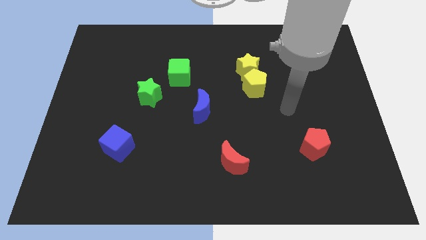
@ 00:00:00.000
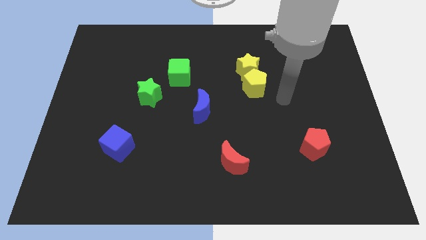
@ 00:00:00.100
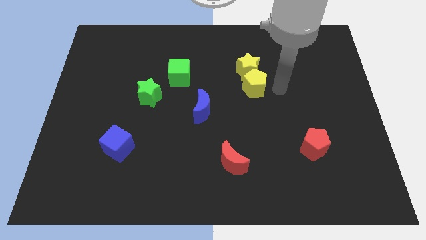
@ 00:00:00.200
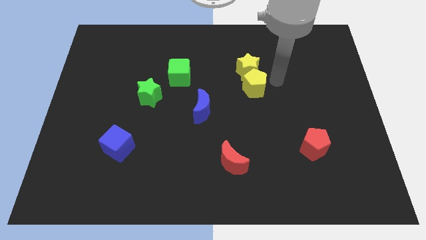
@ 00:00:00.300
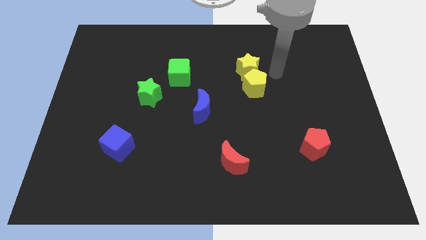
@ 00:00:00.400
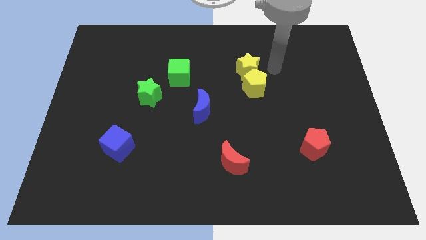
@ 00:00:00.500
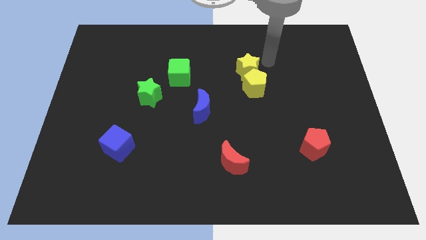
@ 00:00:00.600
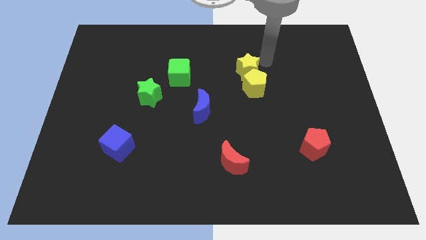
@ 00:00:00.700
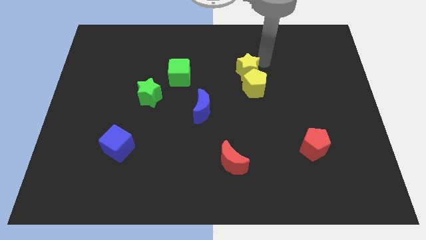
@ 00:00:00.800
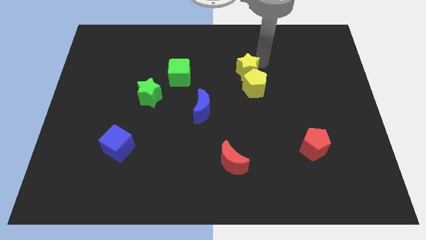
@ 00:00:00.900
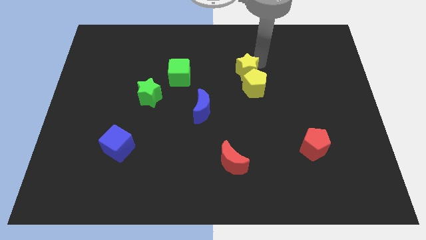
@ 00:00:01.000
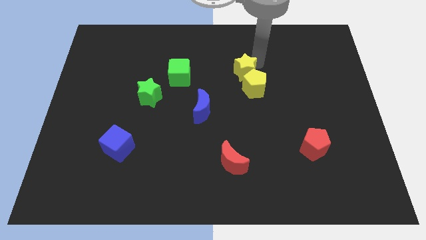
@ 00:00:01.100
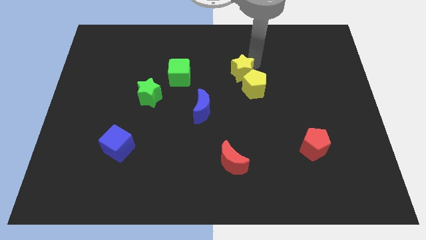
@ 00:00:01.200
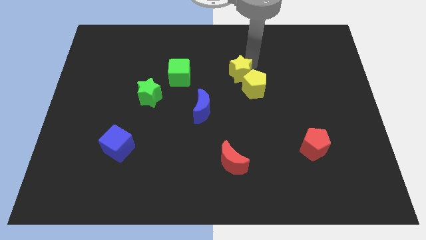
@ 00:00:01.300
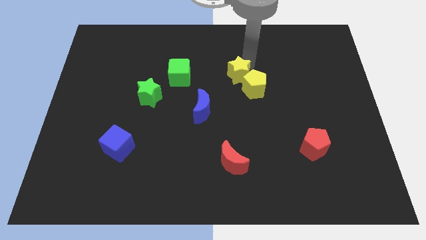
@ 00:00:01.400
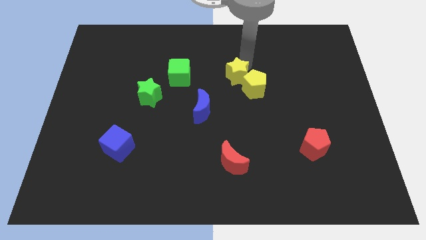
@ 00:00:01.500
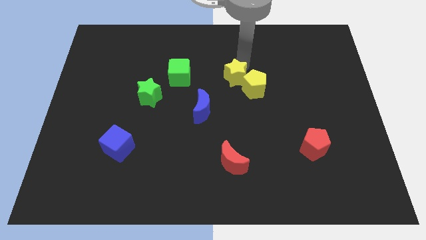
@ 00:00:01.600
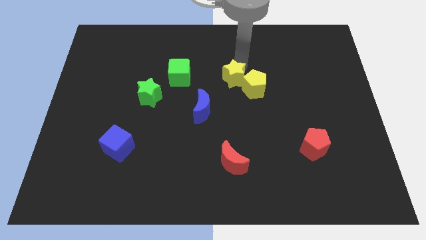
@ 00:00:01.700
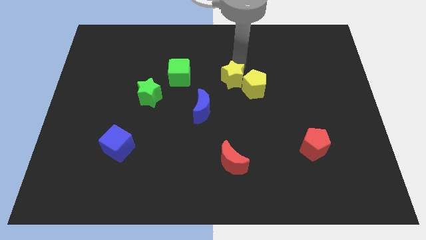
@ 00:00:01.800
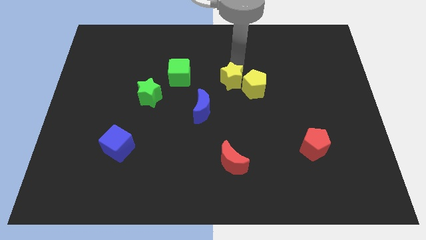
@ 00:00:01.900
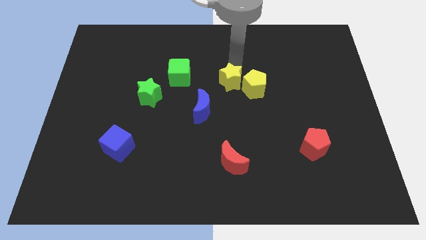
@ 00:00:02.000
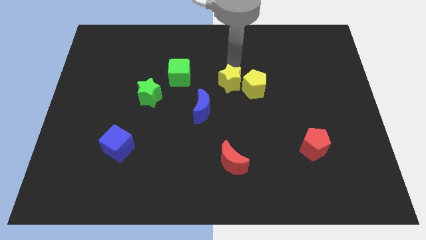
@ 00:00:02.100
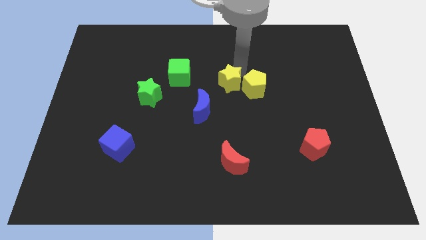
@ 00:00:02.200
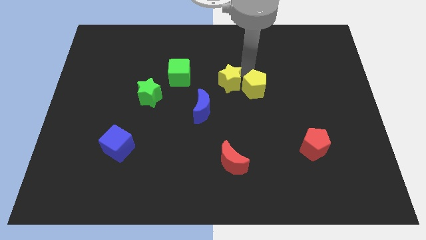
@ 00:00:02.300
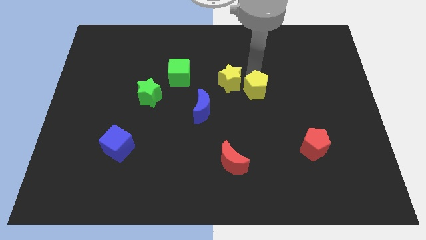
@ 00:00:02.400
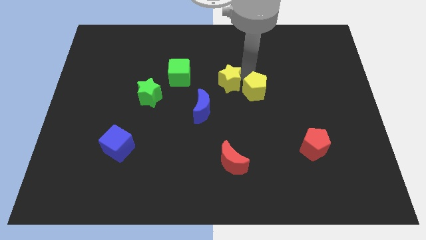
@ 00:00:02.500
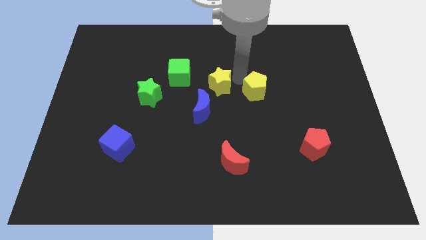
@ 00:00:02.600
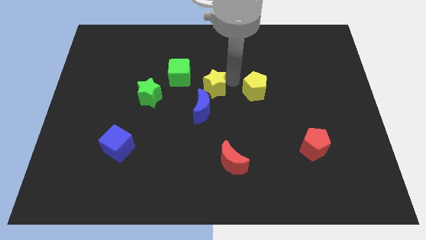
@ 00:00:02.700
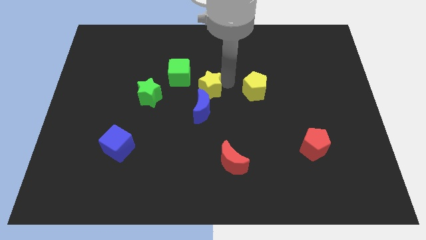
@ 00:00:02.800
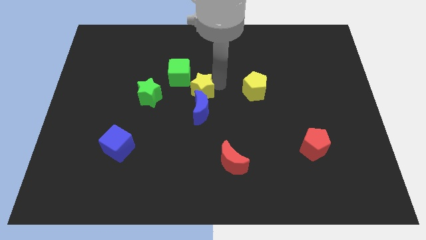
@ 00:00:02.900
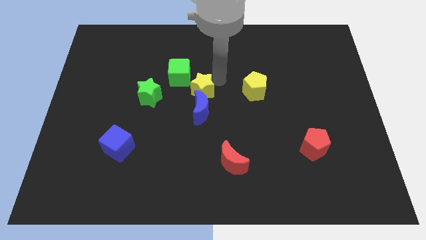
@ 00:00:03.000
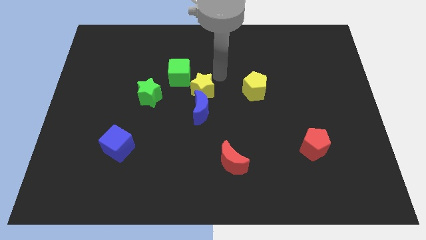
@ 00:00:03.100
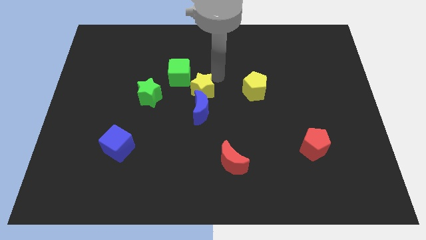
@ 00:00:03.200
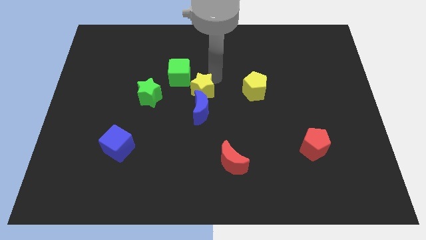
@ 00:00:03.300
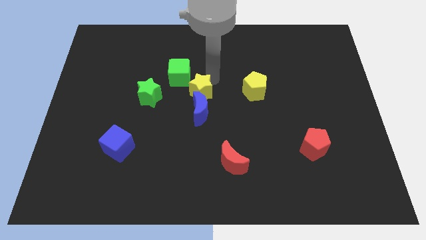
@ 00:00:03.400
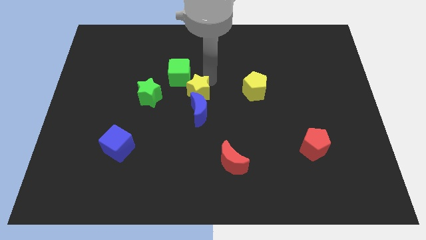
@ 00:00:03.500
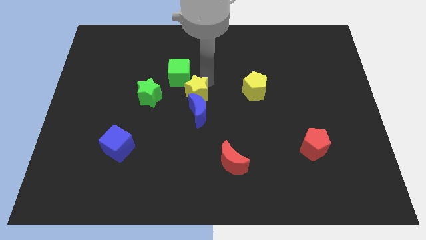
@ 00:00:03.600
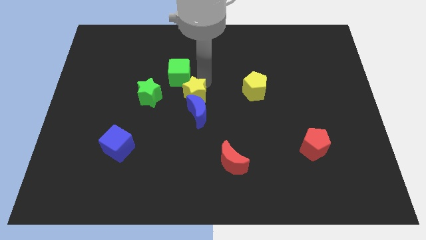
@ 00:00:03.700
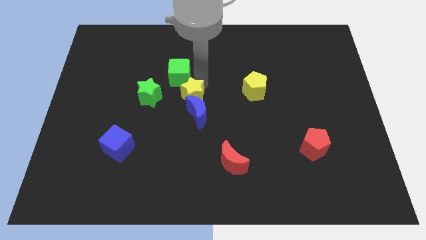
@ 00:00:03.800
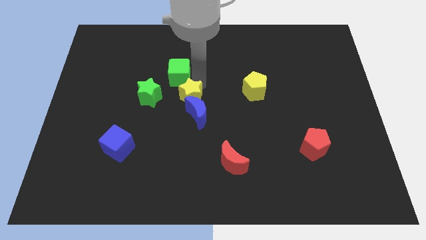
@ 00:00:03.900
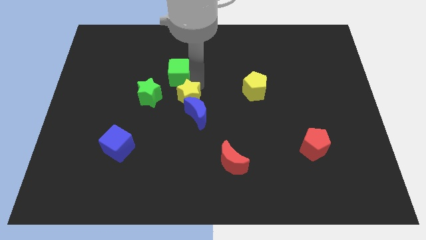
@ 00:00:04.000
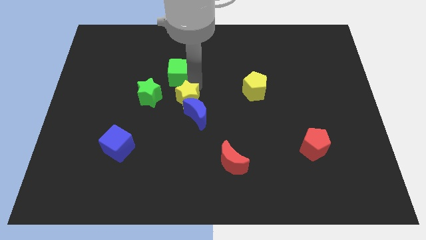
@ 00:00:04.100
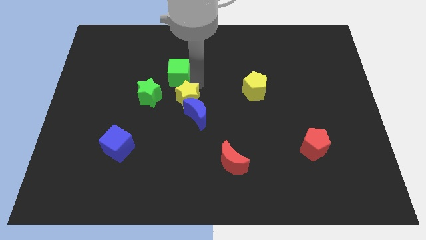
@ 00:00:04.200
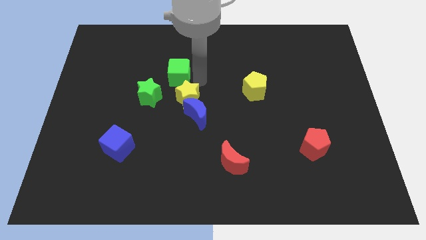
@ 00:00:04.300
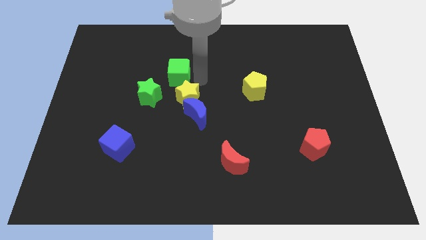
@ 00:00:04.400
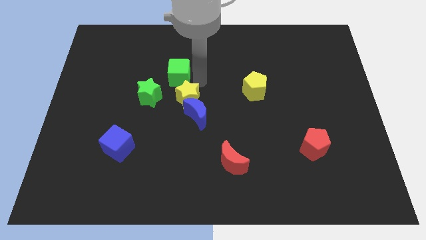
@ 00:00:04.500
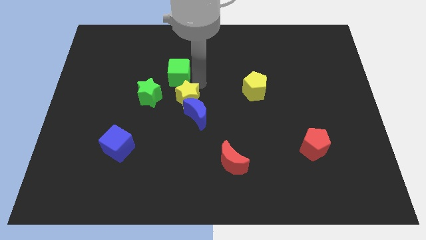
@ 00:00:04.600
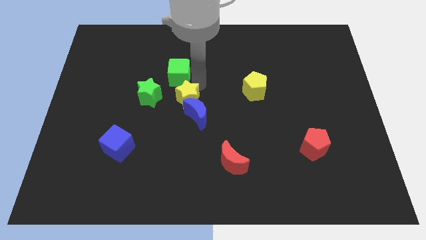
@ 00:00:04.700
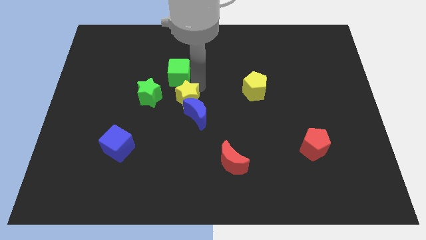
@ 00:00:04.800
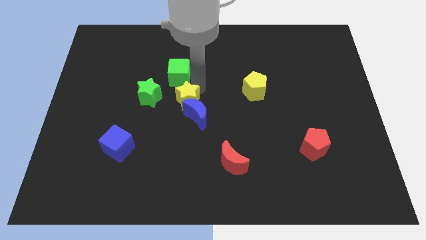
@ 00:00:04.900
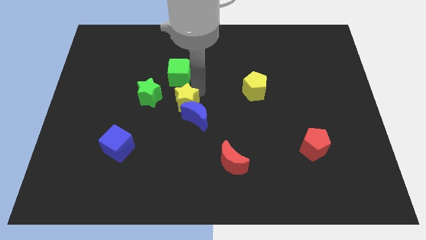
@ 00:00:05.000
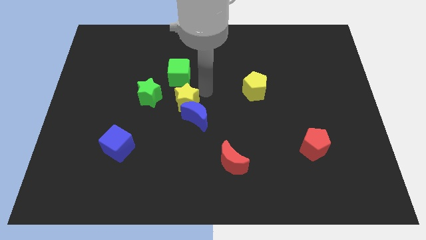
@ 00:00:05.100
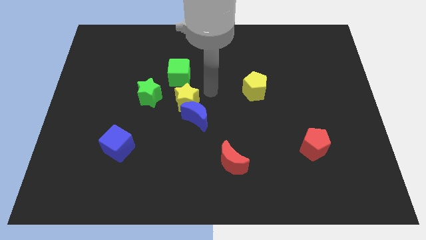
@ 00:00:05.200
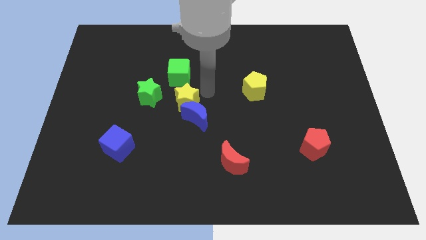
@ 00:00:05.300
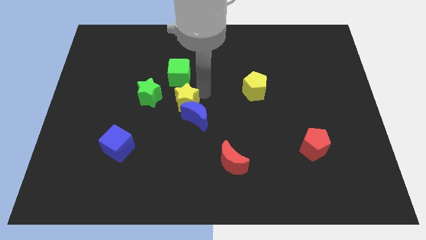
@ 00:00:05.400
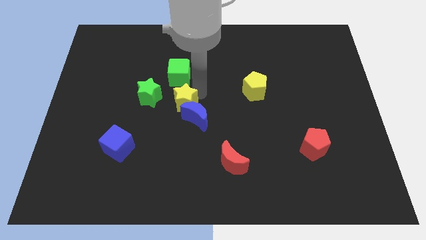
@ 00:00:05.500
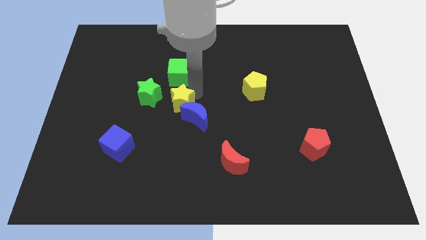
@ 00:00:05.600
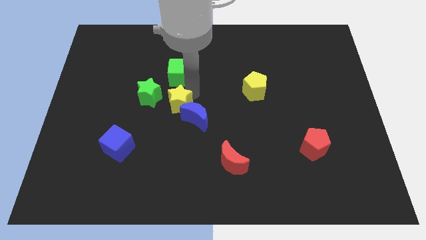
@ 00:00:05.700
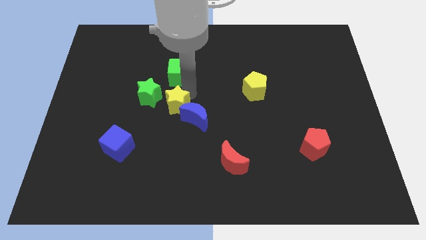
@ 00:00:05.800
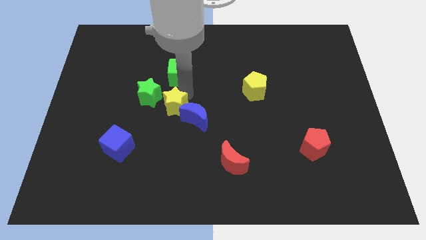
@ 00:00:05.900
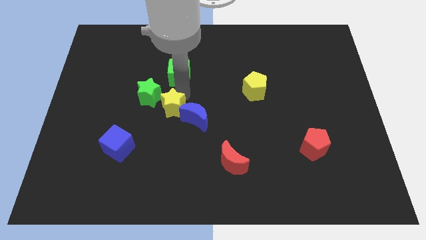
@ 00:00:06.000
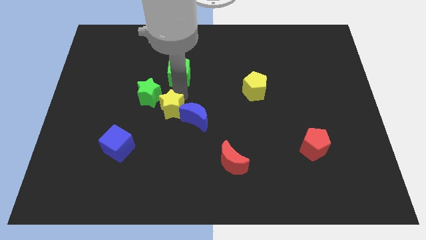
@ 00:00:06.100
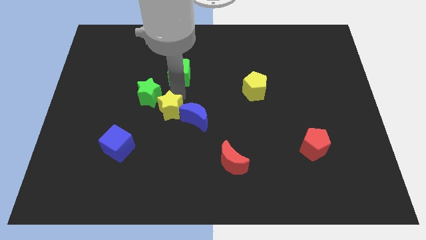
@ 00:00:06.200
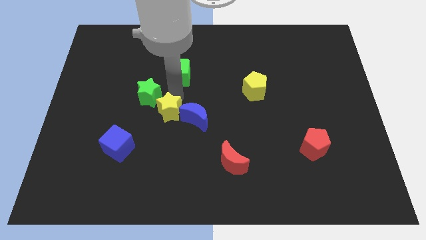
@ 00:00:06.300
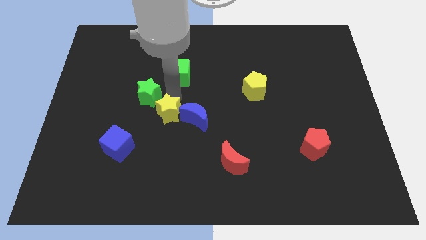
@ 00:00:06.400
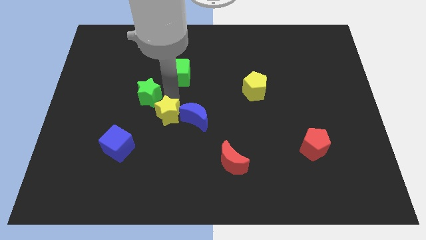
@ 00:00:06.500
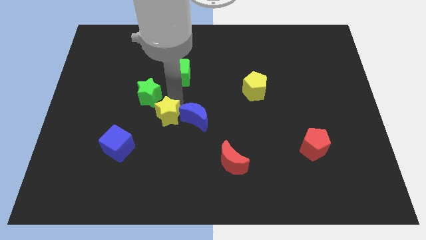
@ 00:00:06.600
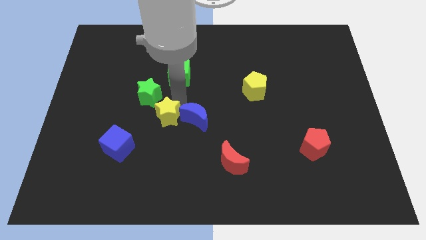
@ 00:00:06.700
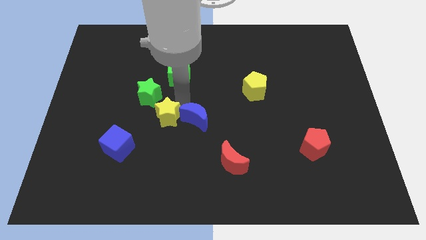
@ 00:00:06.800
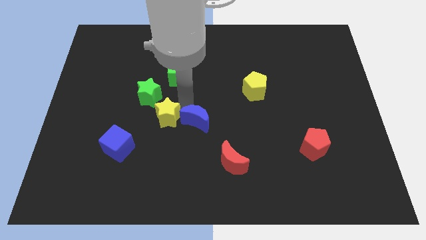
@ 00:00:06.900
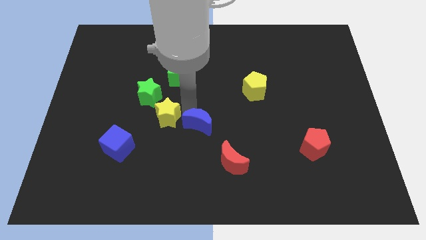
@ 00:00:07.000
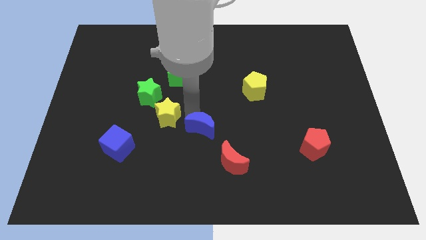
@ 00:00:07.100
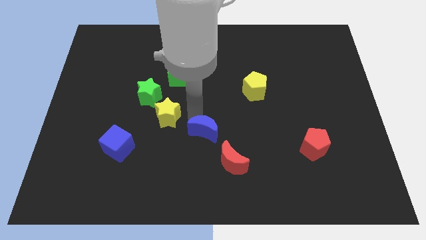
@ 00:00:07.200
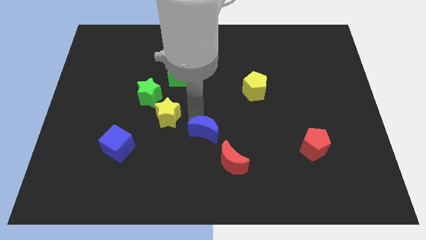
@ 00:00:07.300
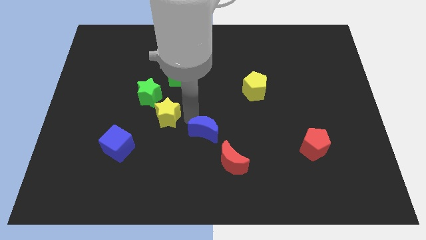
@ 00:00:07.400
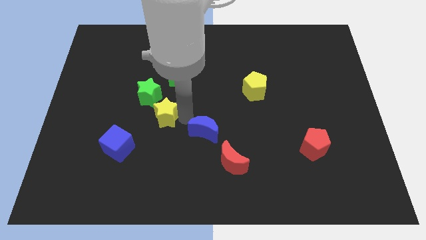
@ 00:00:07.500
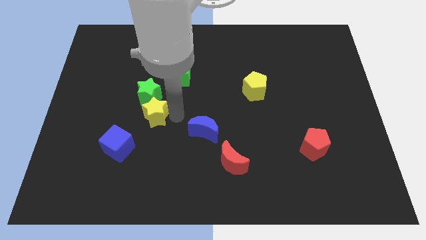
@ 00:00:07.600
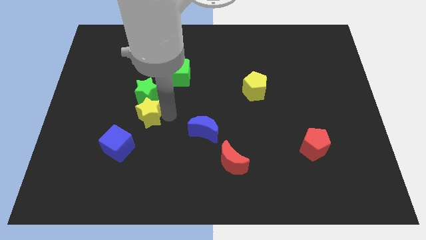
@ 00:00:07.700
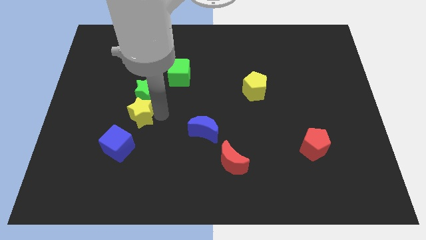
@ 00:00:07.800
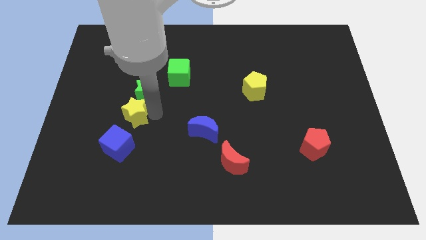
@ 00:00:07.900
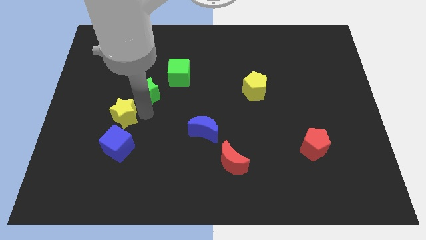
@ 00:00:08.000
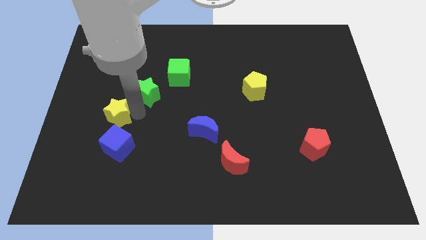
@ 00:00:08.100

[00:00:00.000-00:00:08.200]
put the yellow star to the top left of the blue cube
